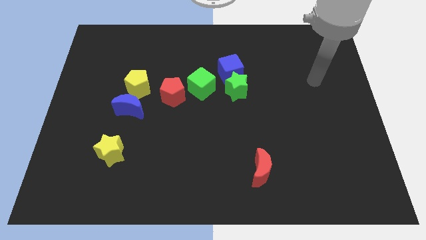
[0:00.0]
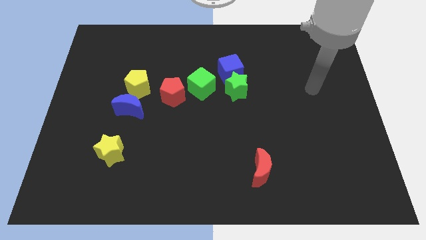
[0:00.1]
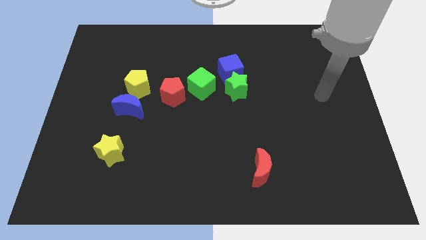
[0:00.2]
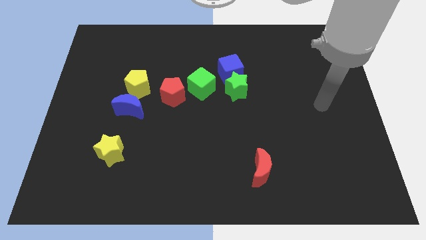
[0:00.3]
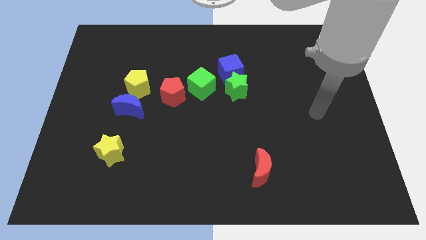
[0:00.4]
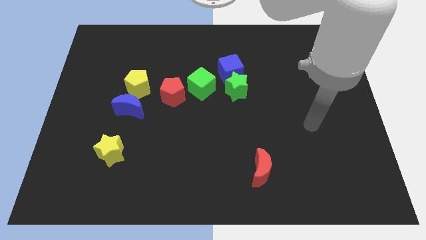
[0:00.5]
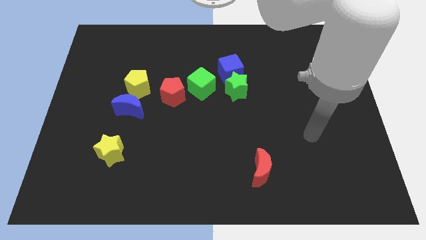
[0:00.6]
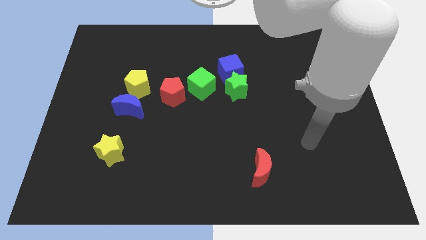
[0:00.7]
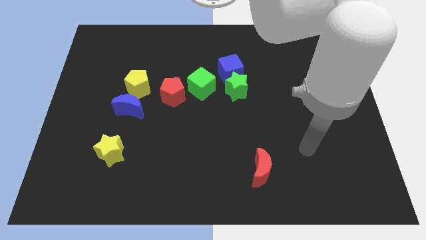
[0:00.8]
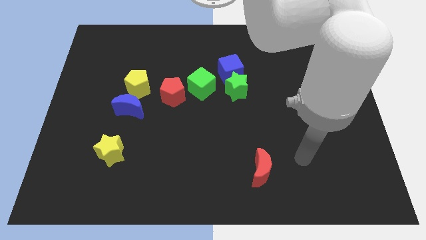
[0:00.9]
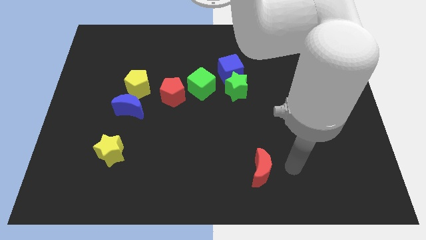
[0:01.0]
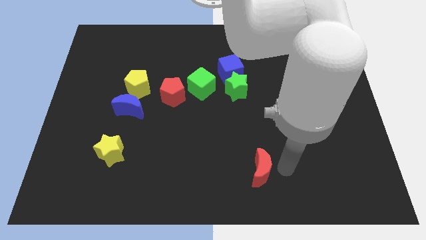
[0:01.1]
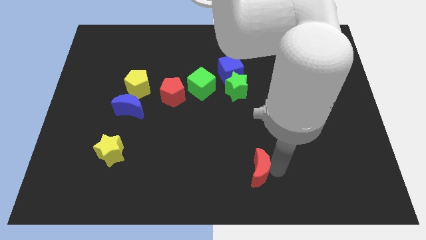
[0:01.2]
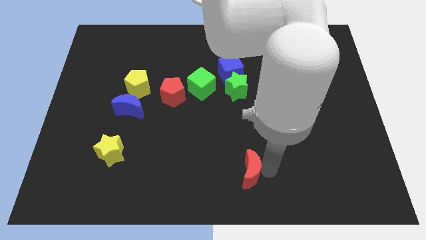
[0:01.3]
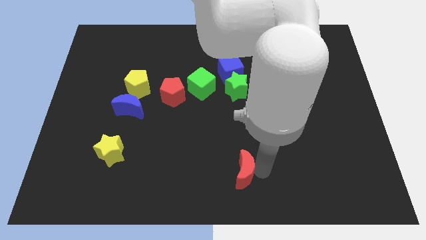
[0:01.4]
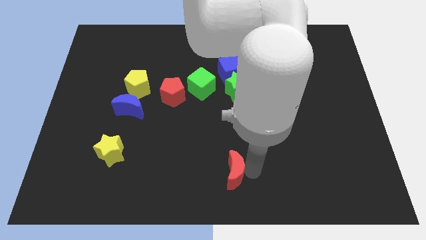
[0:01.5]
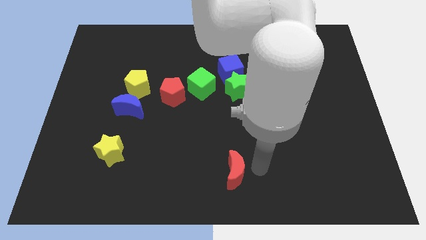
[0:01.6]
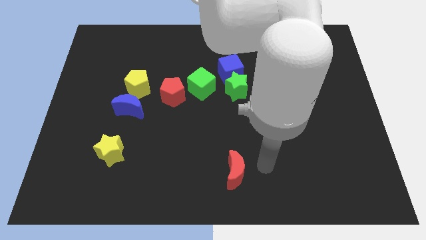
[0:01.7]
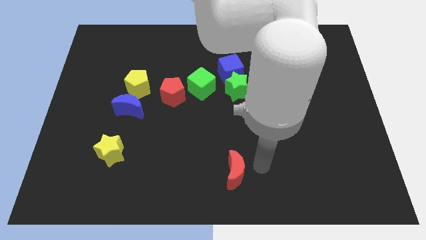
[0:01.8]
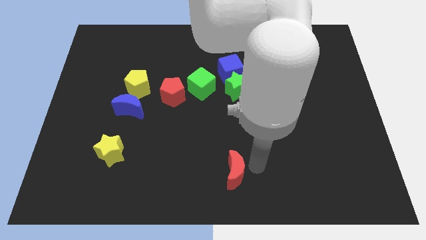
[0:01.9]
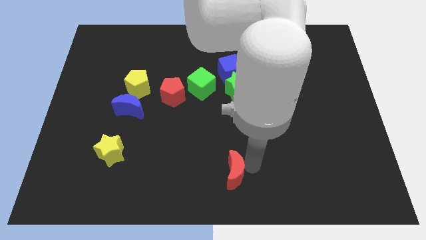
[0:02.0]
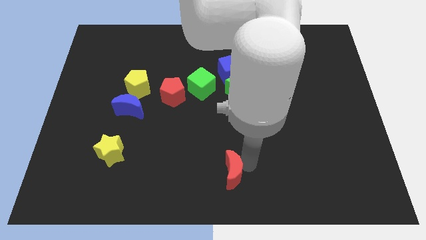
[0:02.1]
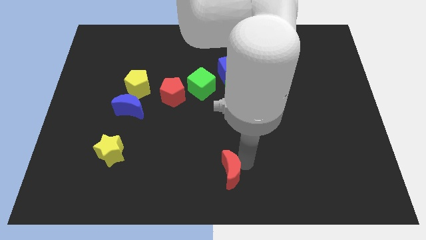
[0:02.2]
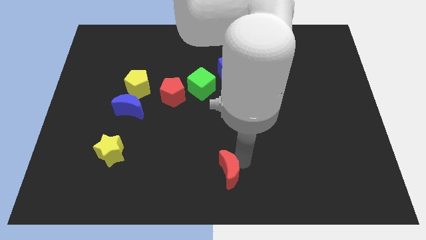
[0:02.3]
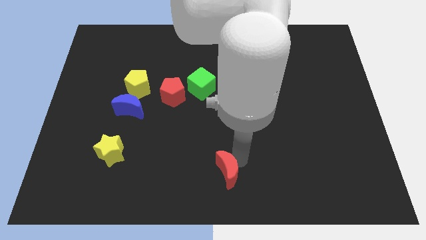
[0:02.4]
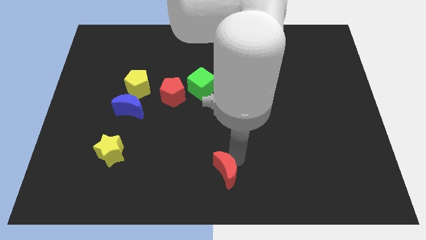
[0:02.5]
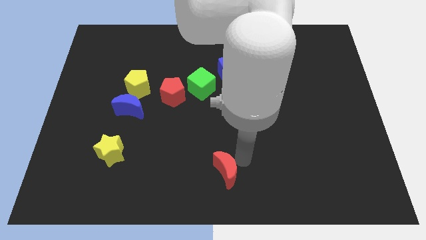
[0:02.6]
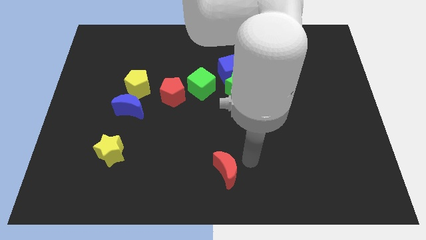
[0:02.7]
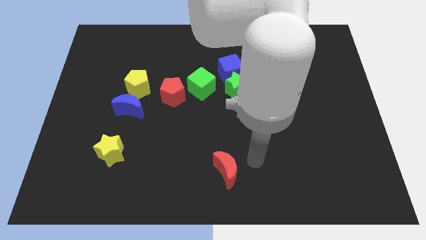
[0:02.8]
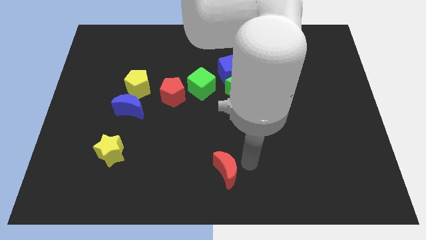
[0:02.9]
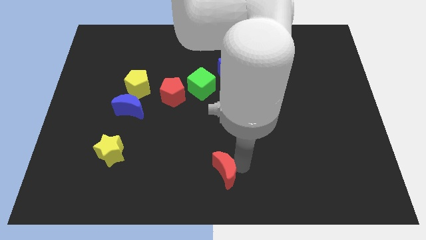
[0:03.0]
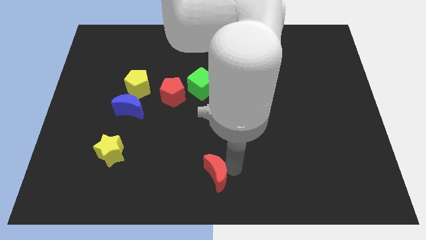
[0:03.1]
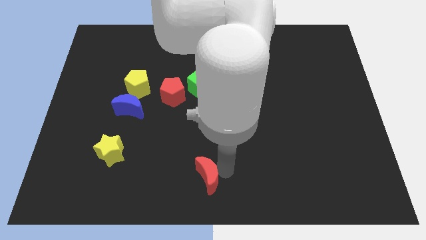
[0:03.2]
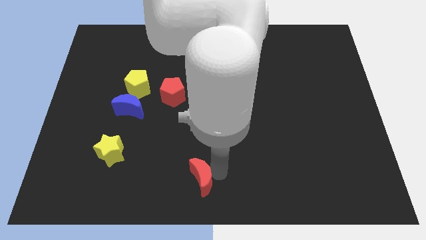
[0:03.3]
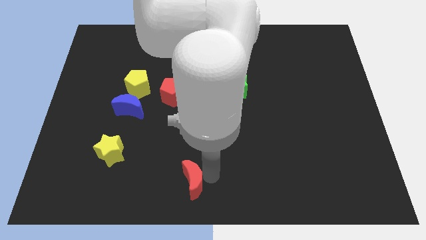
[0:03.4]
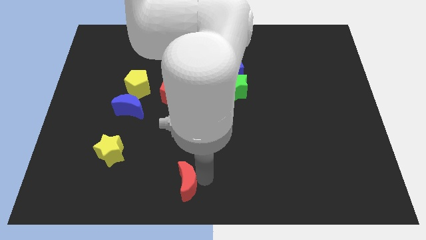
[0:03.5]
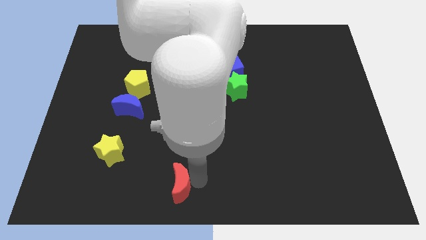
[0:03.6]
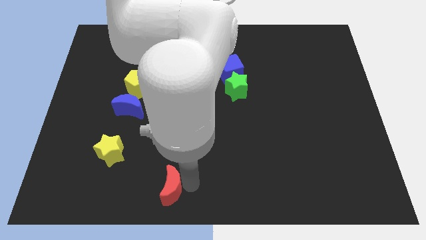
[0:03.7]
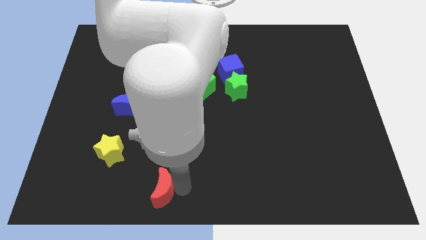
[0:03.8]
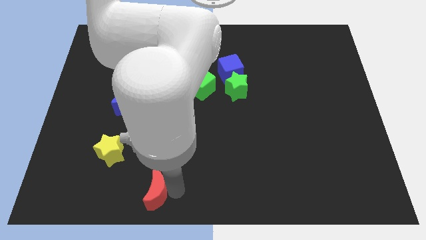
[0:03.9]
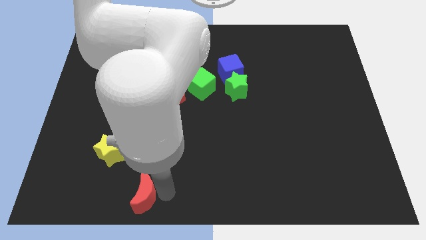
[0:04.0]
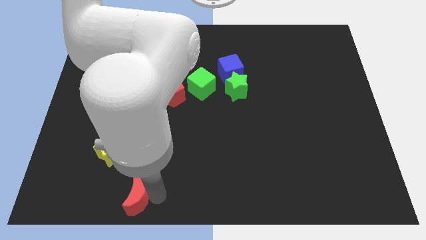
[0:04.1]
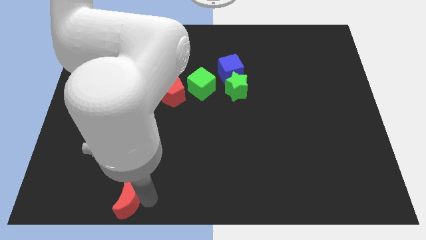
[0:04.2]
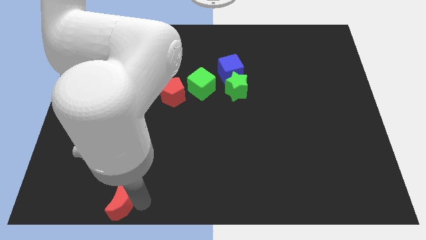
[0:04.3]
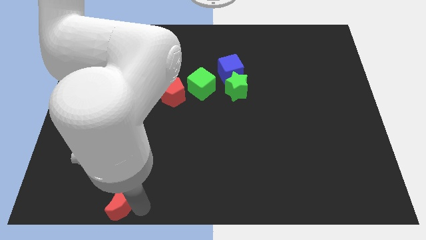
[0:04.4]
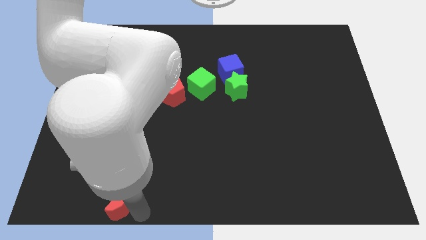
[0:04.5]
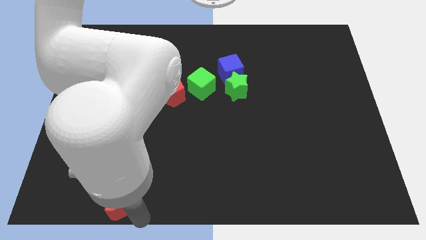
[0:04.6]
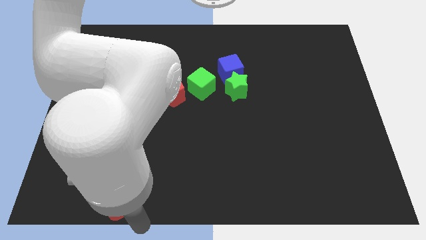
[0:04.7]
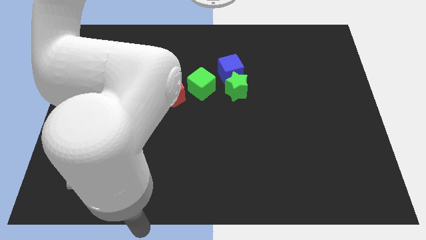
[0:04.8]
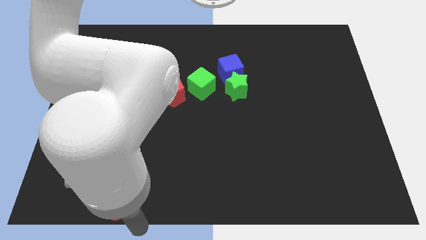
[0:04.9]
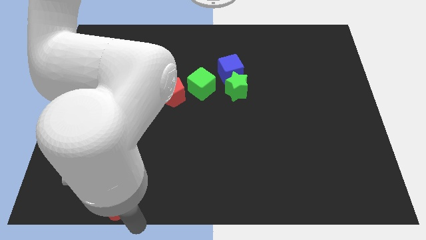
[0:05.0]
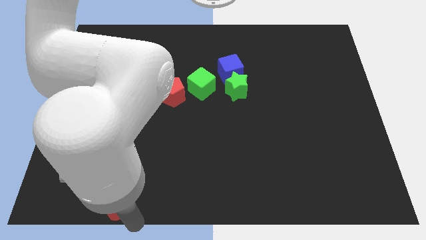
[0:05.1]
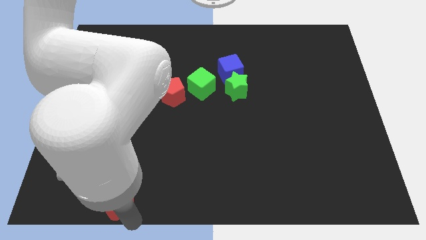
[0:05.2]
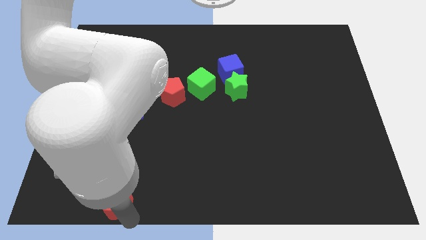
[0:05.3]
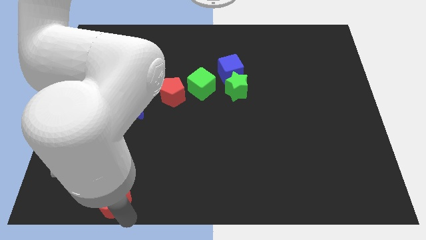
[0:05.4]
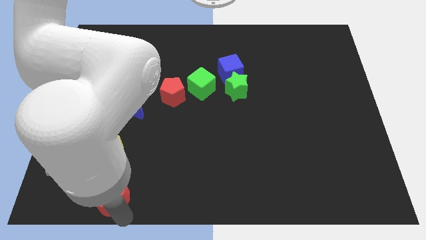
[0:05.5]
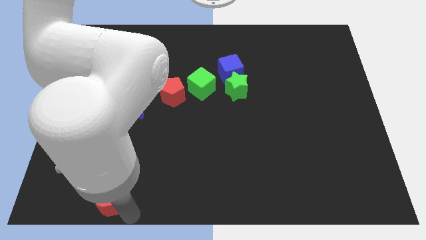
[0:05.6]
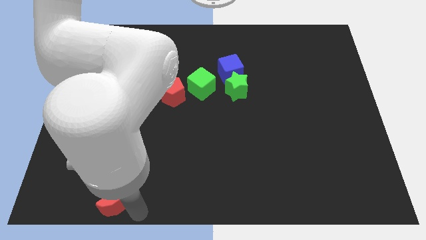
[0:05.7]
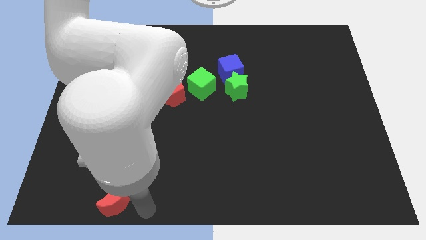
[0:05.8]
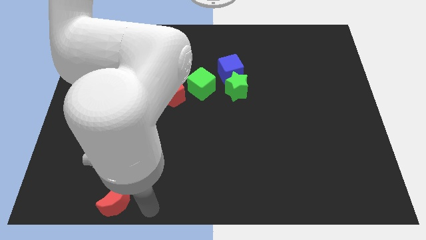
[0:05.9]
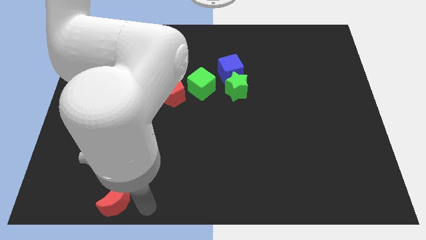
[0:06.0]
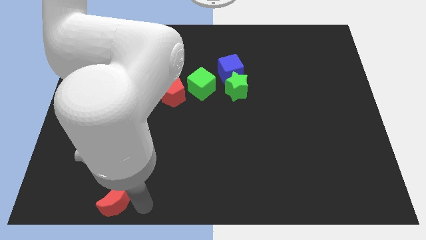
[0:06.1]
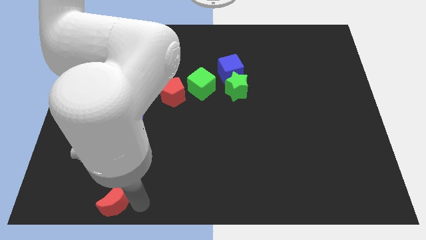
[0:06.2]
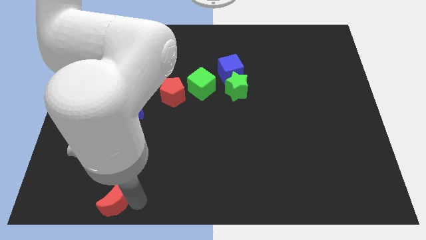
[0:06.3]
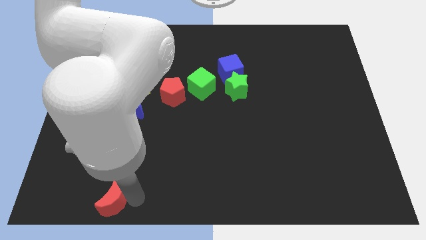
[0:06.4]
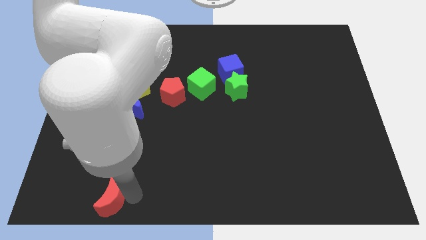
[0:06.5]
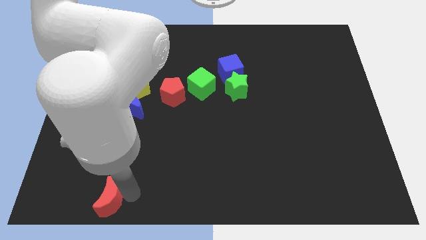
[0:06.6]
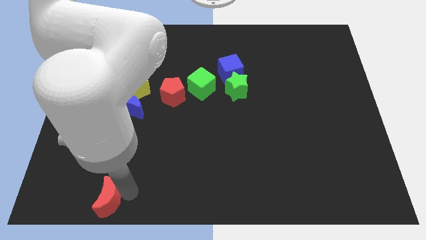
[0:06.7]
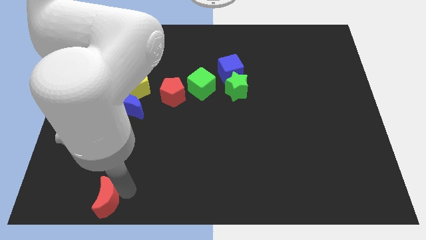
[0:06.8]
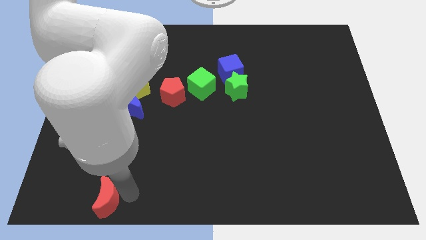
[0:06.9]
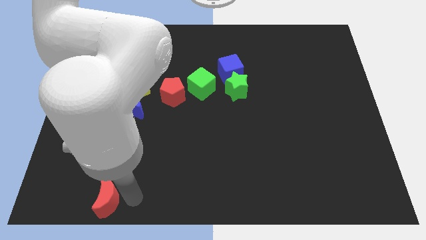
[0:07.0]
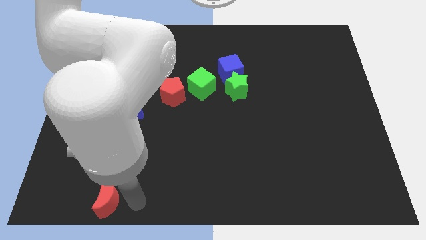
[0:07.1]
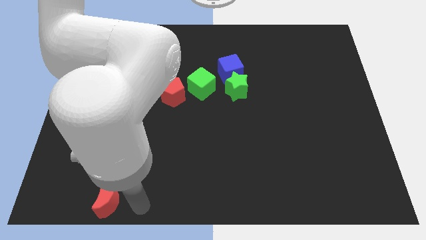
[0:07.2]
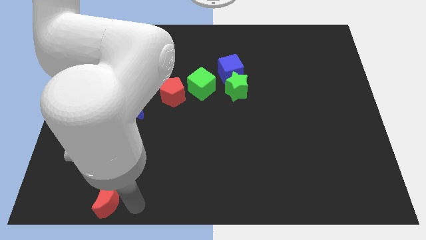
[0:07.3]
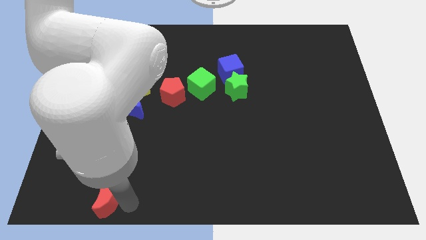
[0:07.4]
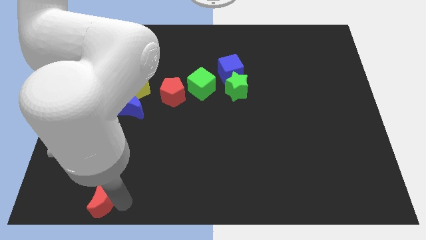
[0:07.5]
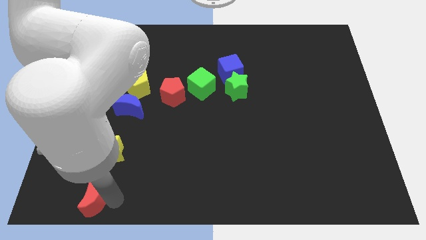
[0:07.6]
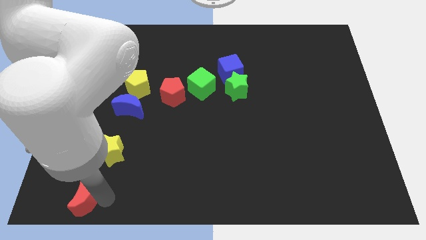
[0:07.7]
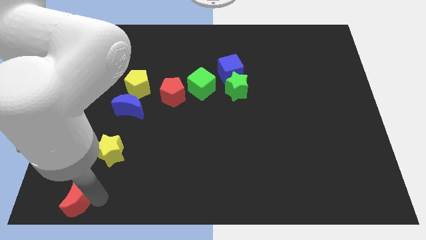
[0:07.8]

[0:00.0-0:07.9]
push the red moon to the lower left corner

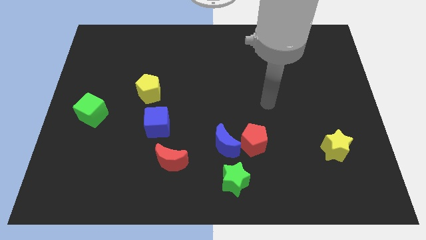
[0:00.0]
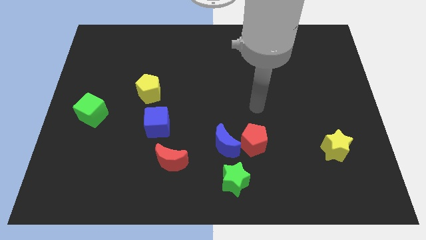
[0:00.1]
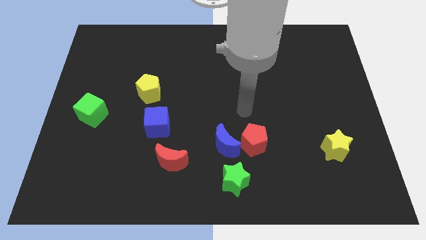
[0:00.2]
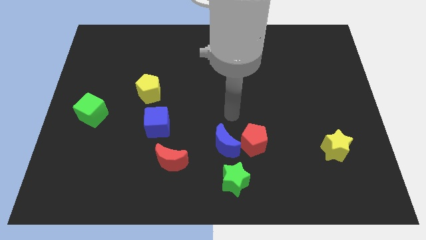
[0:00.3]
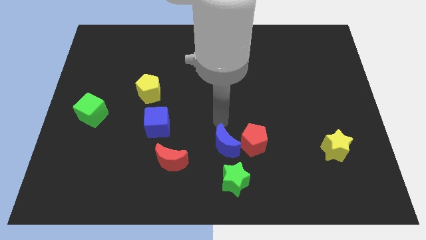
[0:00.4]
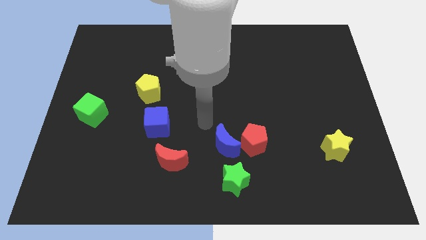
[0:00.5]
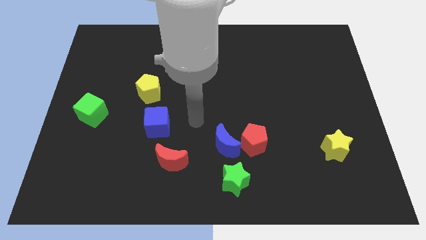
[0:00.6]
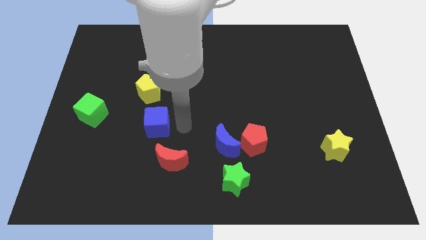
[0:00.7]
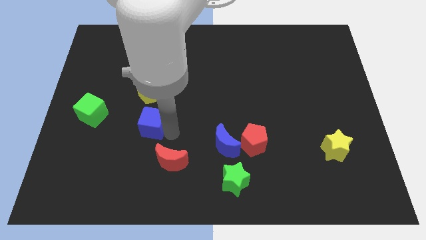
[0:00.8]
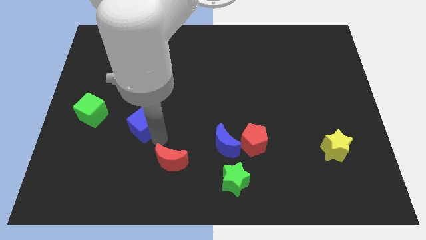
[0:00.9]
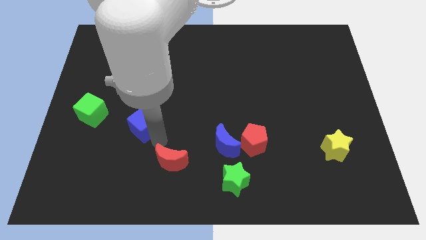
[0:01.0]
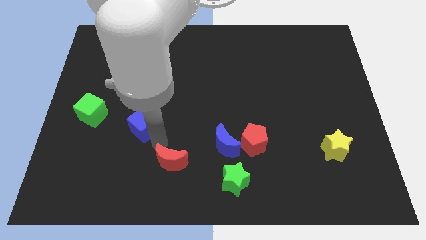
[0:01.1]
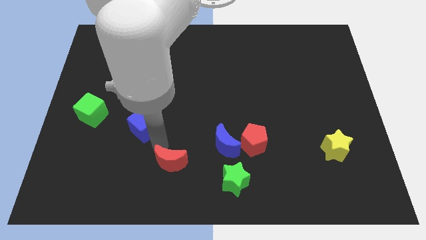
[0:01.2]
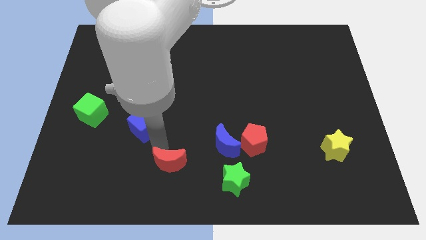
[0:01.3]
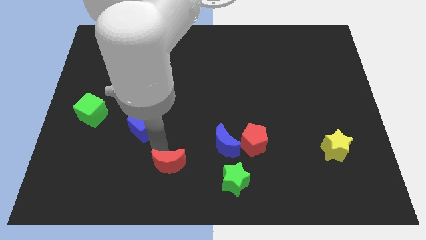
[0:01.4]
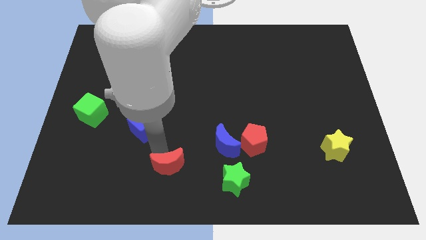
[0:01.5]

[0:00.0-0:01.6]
move the red moon to the bottom side
